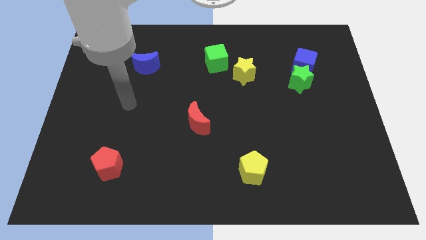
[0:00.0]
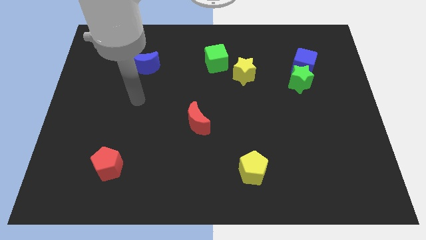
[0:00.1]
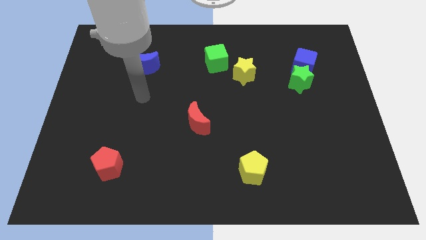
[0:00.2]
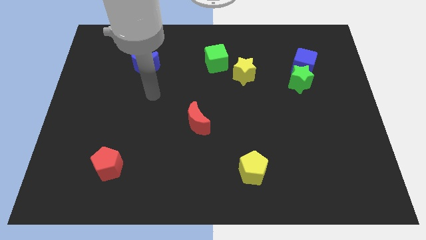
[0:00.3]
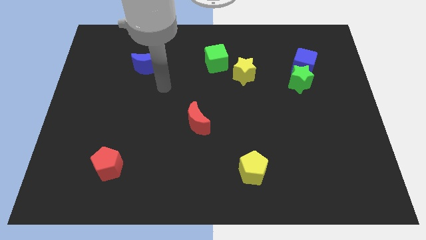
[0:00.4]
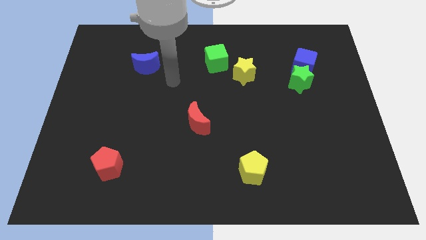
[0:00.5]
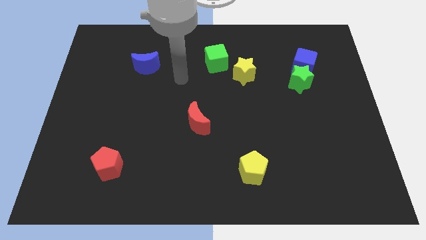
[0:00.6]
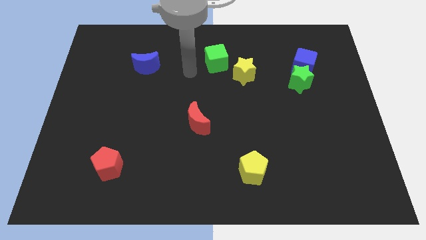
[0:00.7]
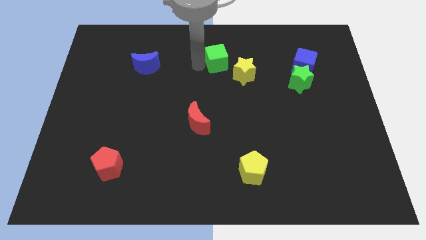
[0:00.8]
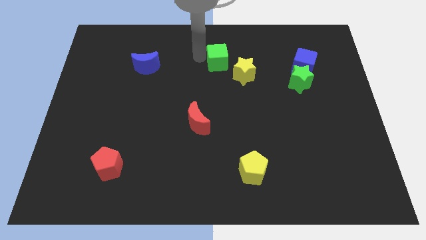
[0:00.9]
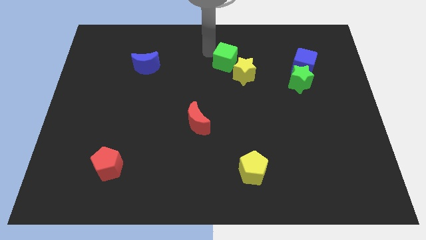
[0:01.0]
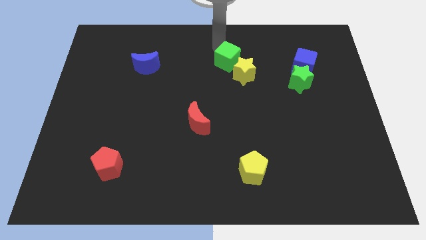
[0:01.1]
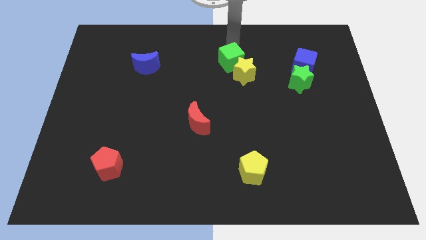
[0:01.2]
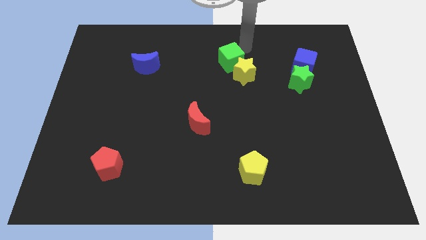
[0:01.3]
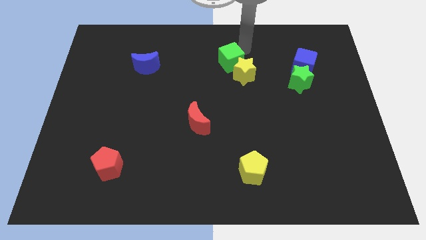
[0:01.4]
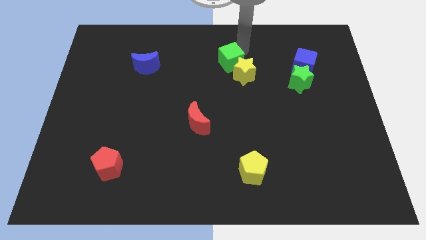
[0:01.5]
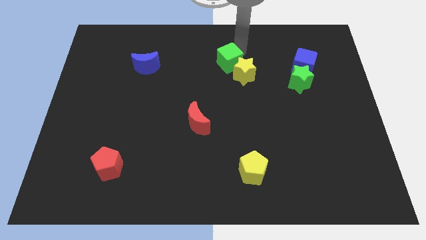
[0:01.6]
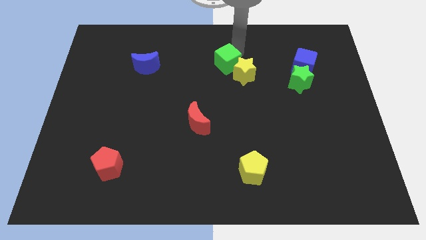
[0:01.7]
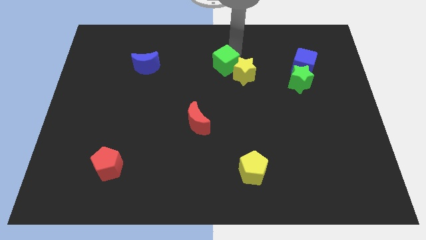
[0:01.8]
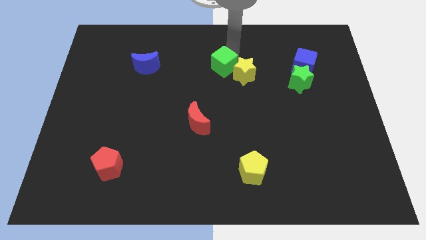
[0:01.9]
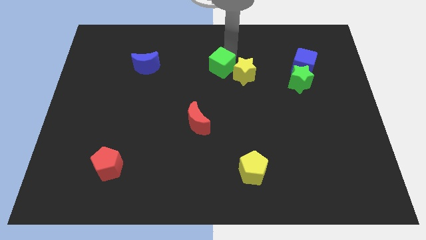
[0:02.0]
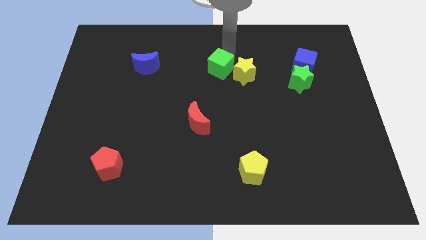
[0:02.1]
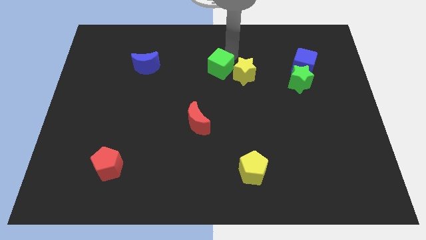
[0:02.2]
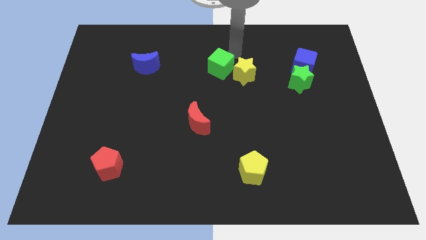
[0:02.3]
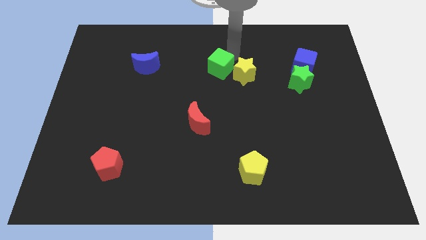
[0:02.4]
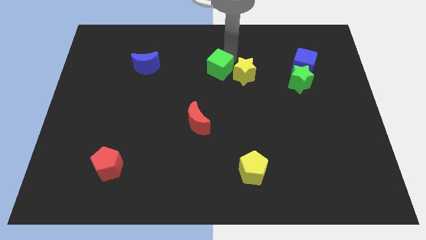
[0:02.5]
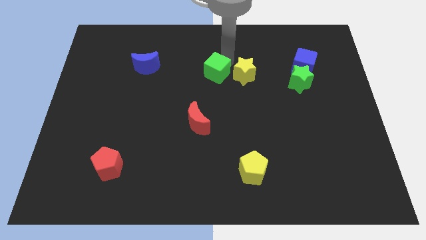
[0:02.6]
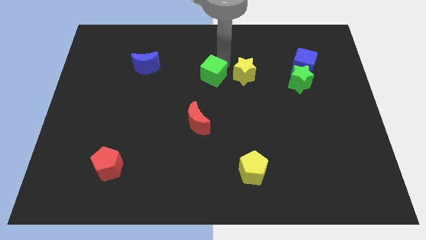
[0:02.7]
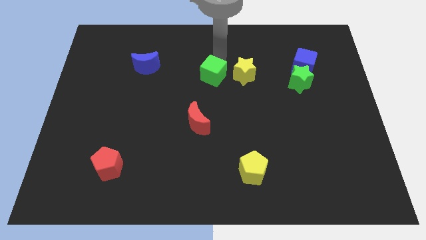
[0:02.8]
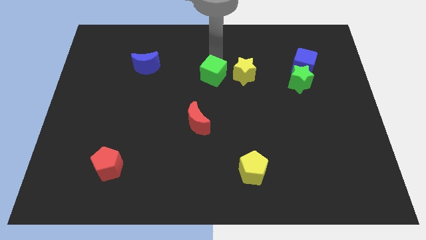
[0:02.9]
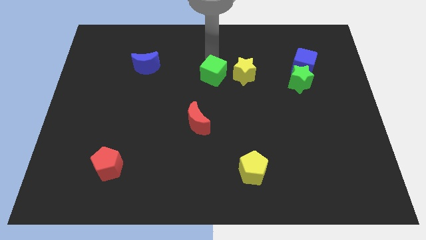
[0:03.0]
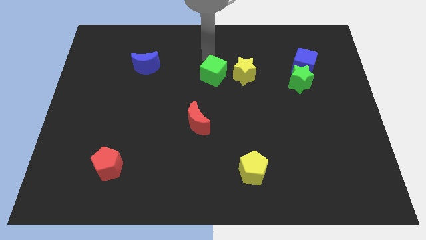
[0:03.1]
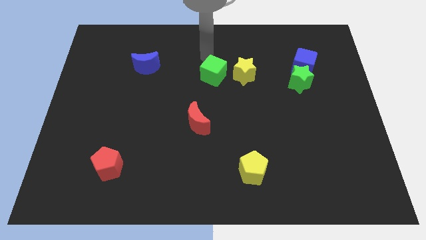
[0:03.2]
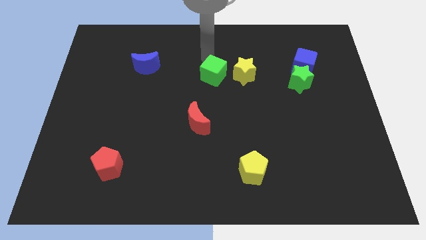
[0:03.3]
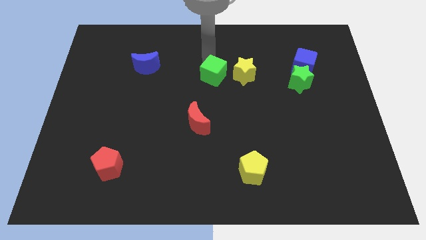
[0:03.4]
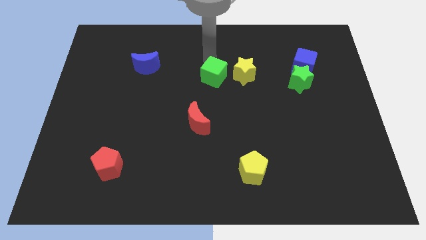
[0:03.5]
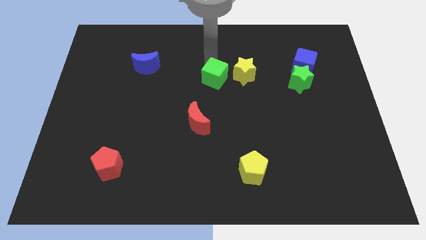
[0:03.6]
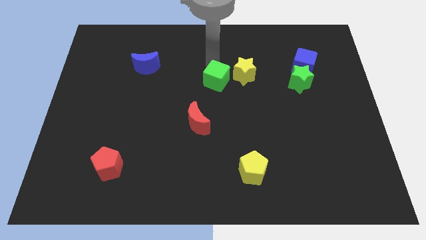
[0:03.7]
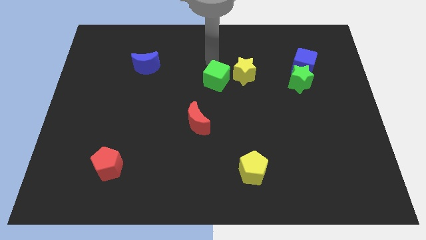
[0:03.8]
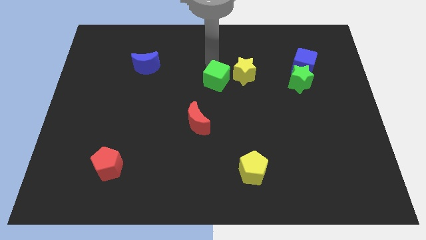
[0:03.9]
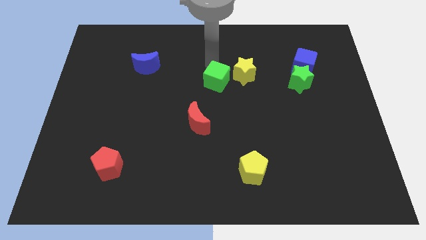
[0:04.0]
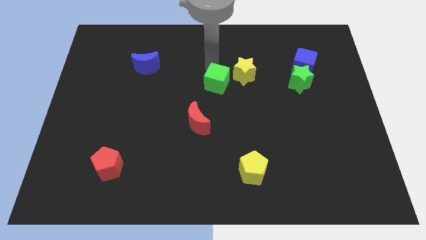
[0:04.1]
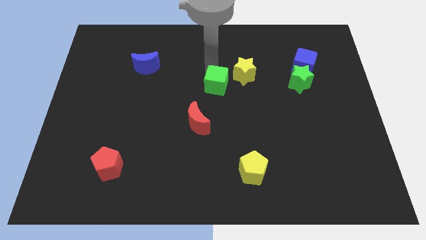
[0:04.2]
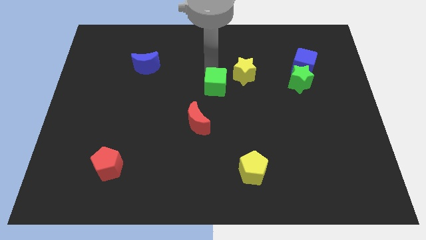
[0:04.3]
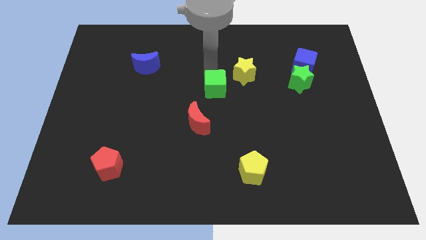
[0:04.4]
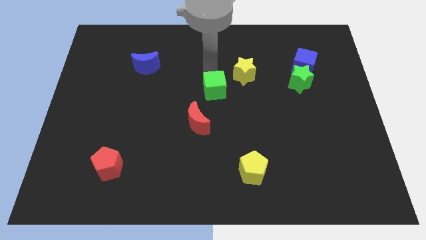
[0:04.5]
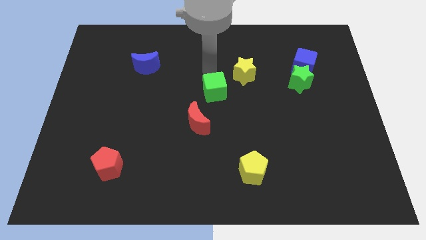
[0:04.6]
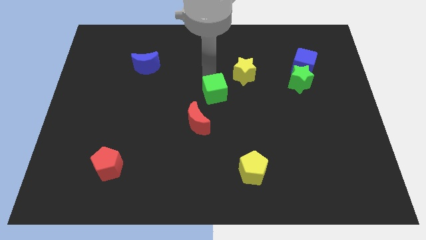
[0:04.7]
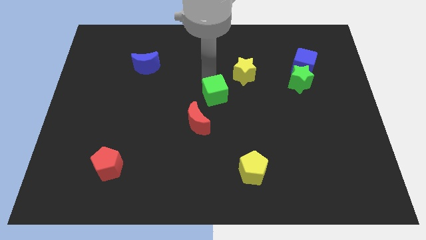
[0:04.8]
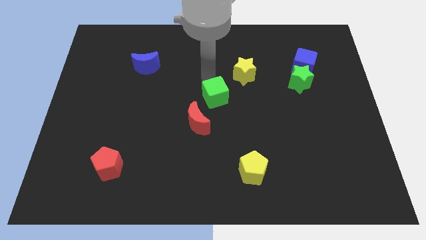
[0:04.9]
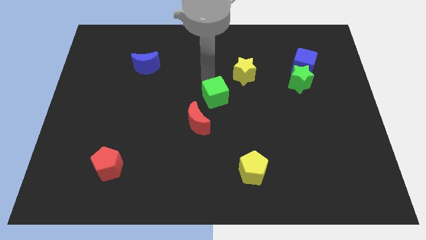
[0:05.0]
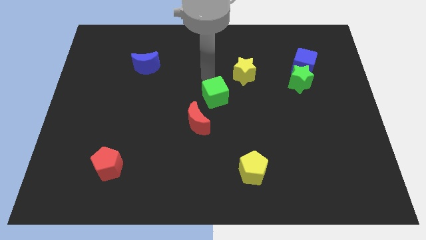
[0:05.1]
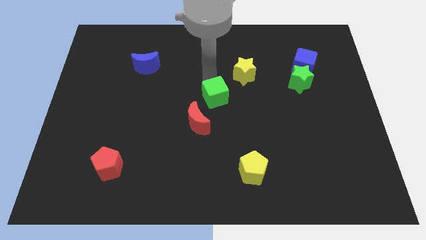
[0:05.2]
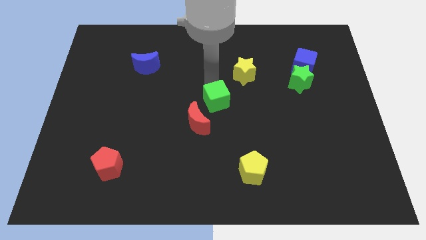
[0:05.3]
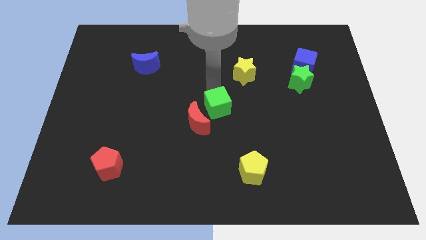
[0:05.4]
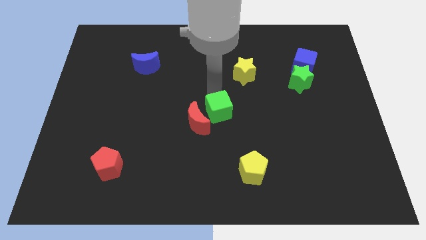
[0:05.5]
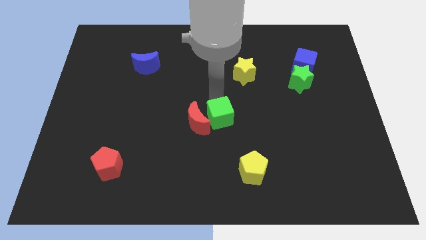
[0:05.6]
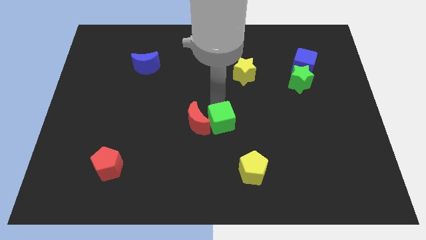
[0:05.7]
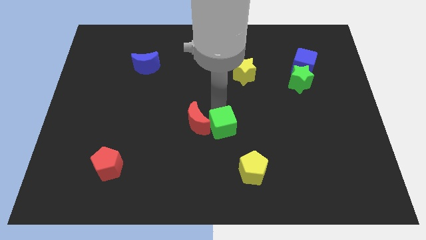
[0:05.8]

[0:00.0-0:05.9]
slide the green cube down

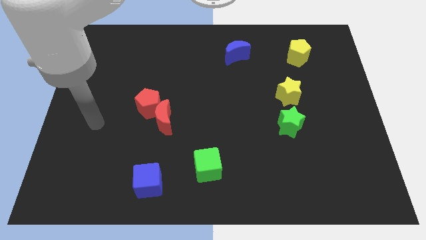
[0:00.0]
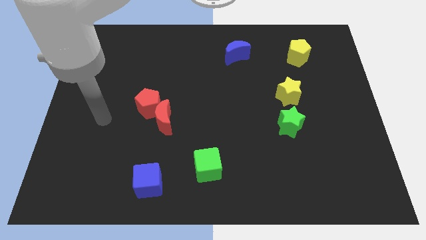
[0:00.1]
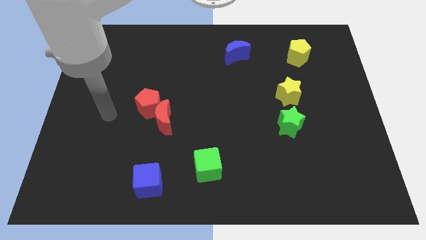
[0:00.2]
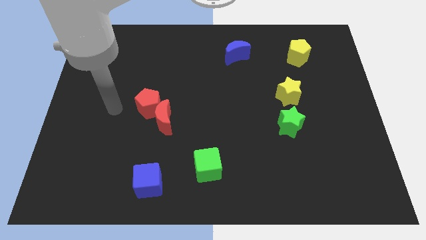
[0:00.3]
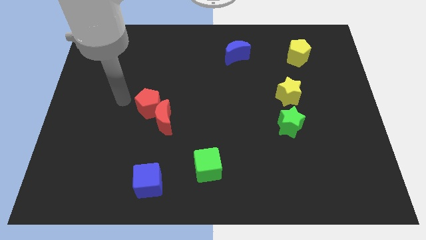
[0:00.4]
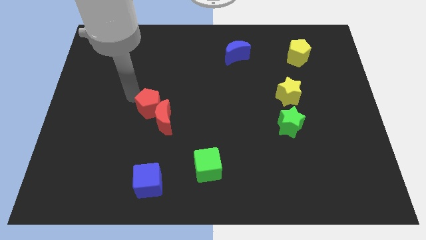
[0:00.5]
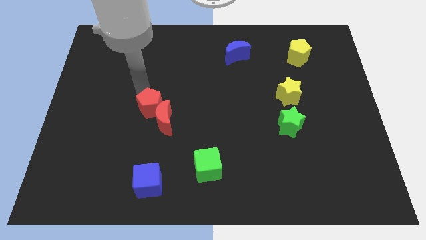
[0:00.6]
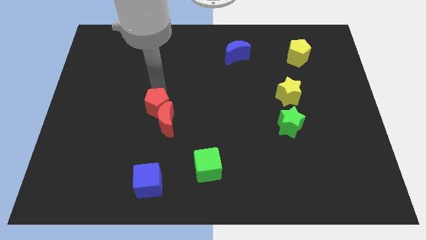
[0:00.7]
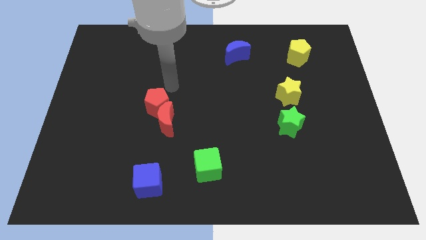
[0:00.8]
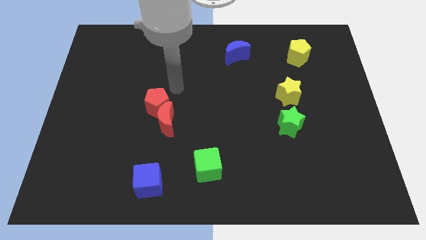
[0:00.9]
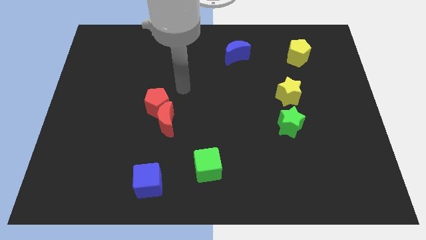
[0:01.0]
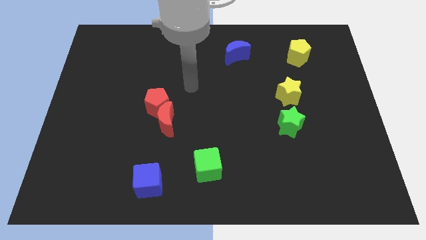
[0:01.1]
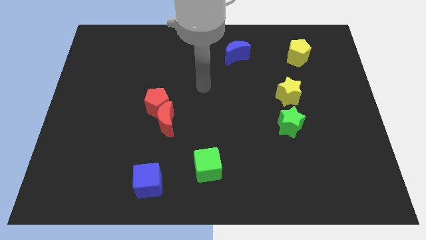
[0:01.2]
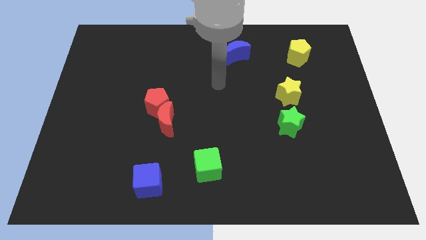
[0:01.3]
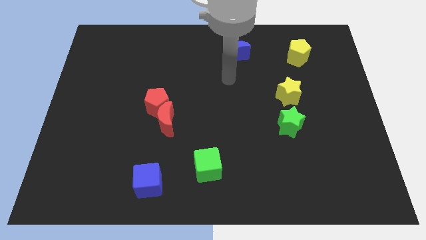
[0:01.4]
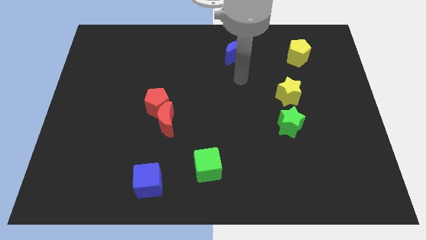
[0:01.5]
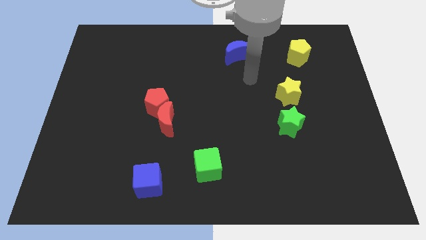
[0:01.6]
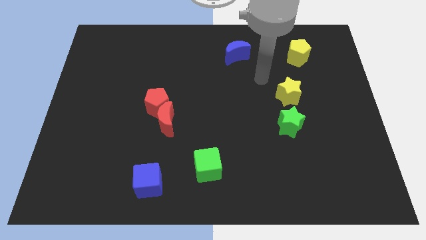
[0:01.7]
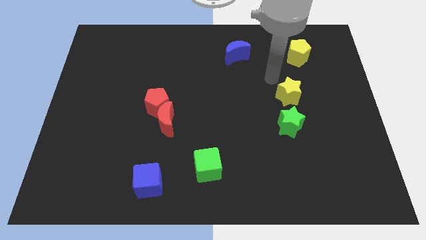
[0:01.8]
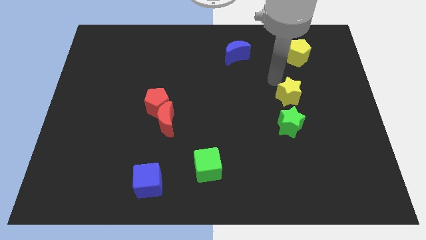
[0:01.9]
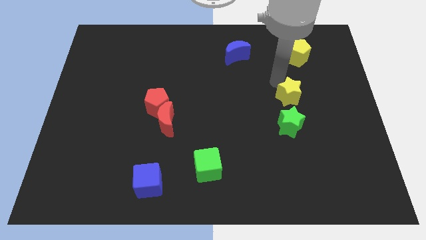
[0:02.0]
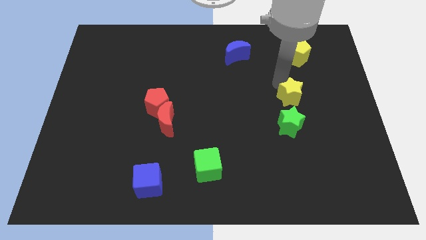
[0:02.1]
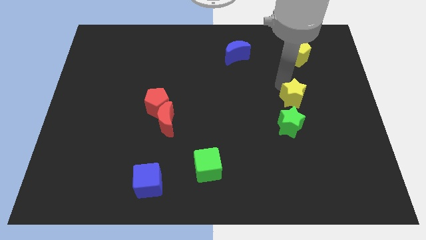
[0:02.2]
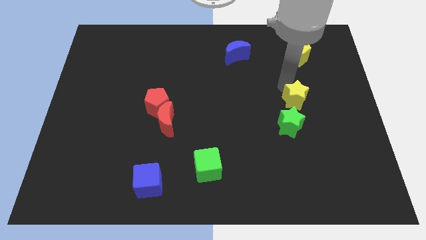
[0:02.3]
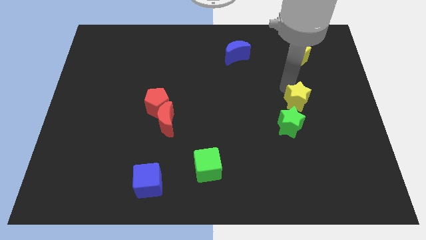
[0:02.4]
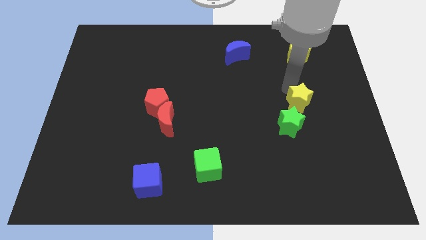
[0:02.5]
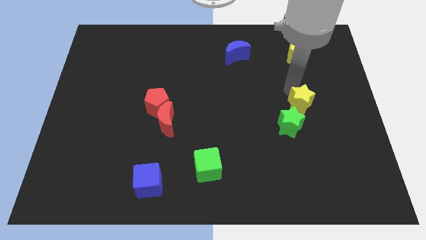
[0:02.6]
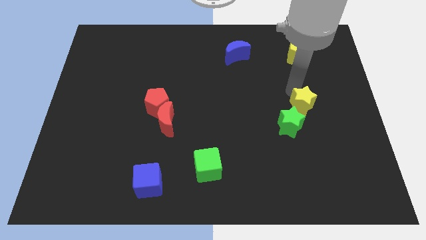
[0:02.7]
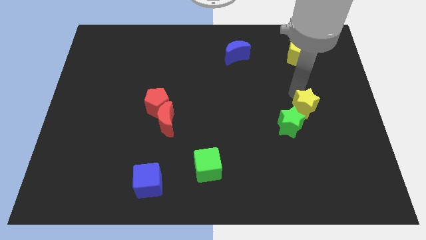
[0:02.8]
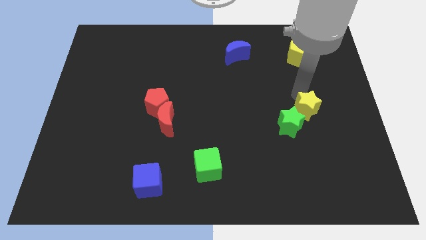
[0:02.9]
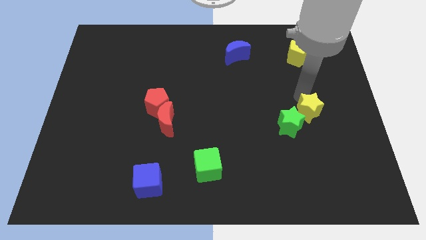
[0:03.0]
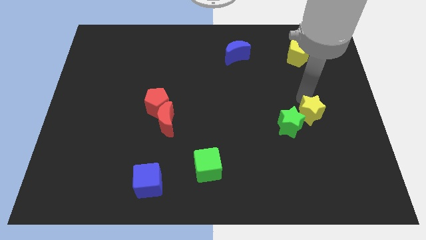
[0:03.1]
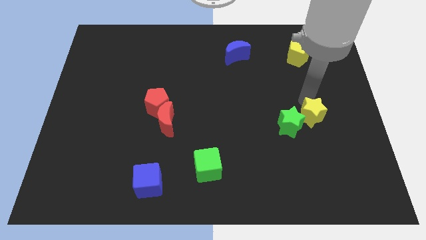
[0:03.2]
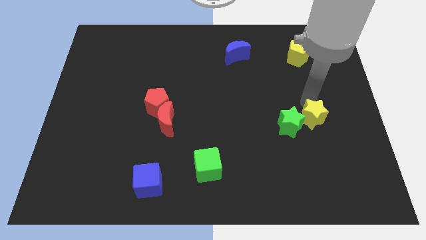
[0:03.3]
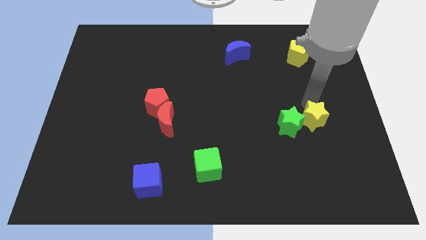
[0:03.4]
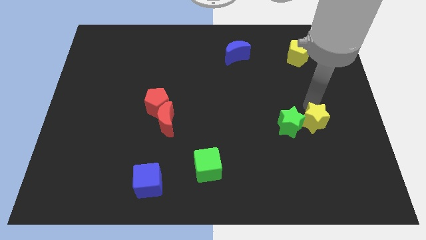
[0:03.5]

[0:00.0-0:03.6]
slightly push the yellow star down
